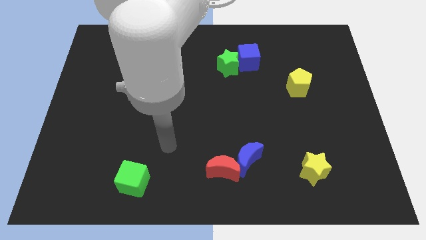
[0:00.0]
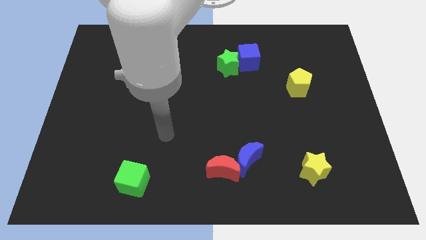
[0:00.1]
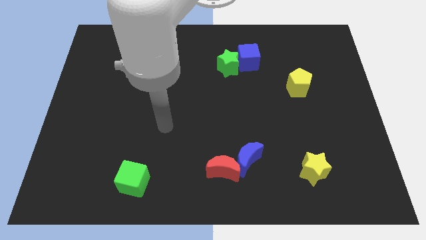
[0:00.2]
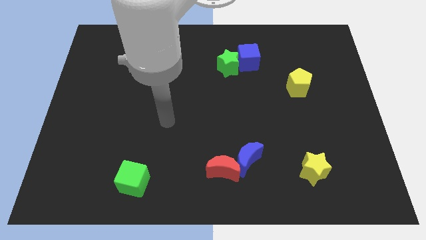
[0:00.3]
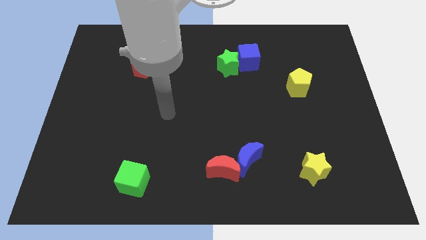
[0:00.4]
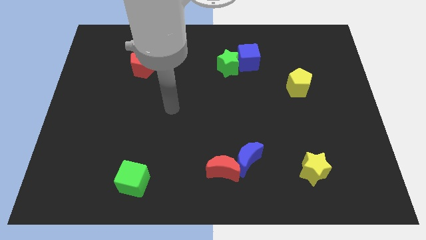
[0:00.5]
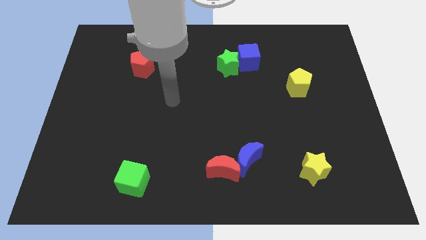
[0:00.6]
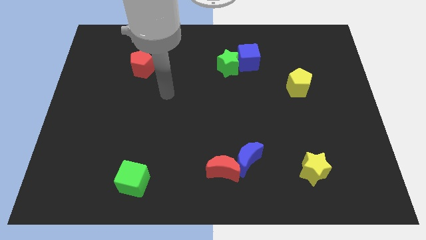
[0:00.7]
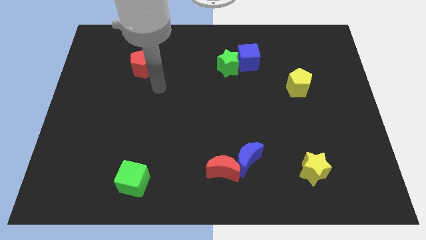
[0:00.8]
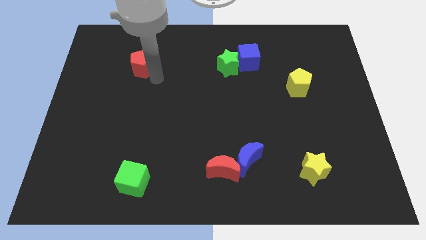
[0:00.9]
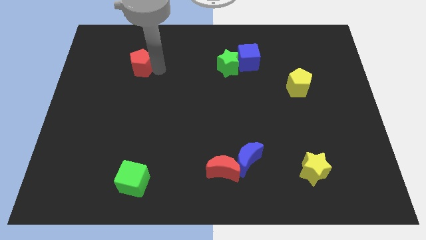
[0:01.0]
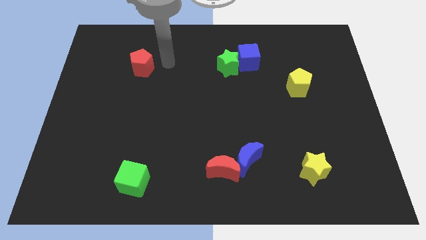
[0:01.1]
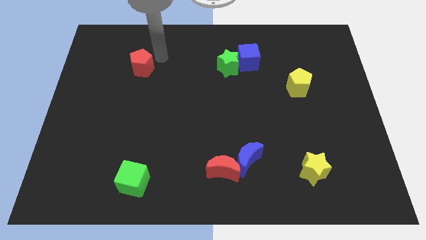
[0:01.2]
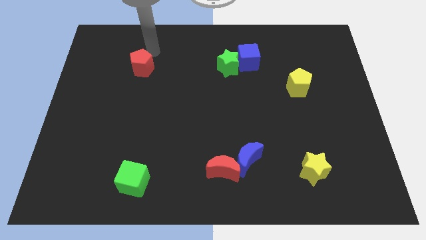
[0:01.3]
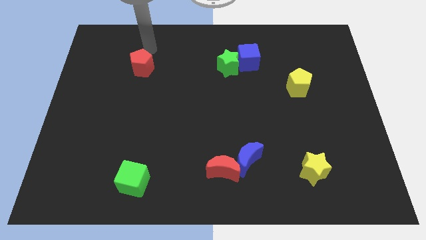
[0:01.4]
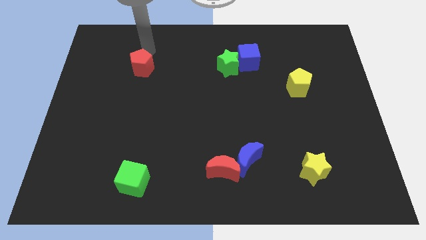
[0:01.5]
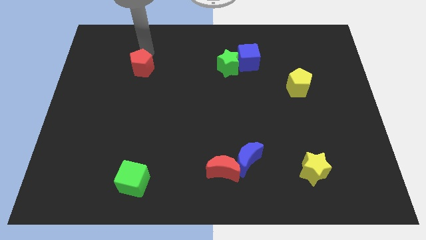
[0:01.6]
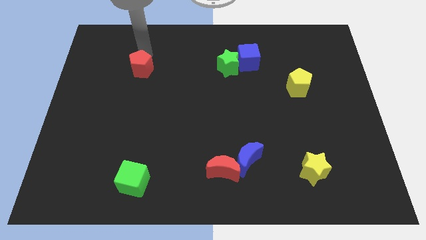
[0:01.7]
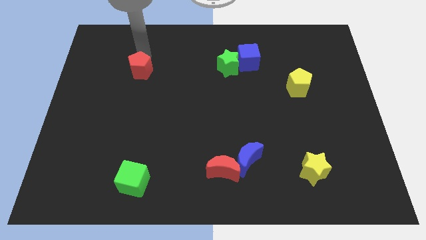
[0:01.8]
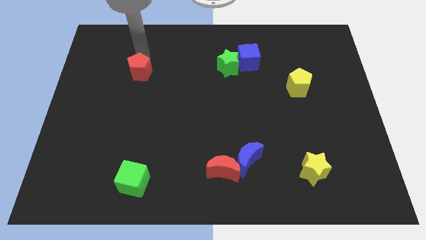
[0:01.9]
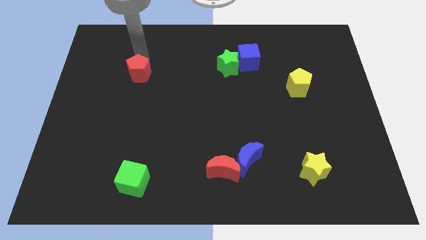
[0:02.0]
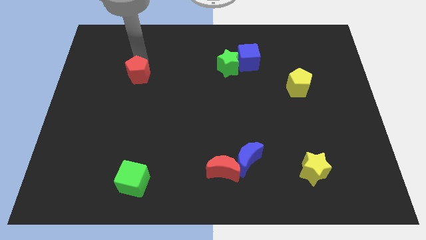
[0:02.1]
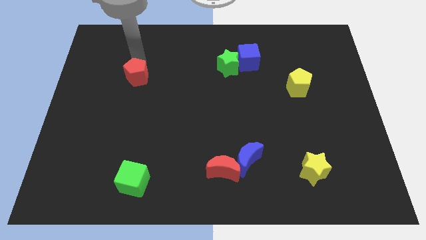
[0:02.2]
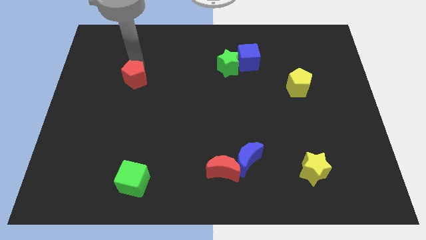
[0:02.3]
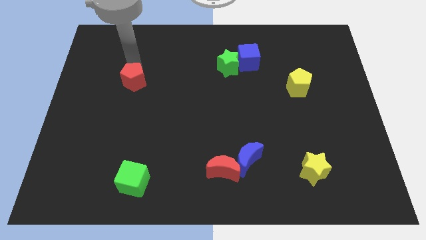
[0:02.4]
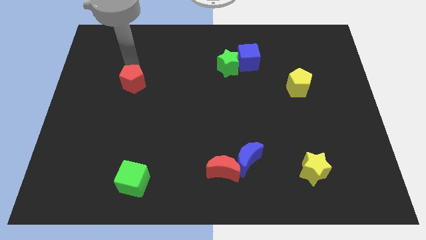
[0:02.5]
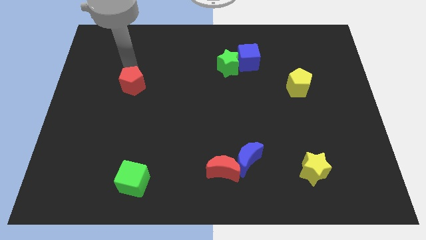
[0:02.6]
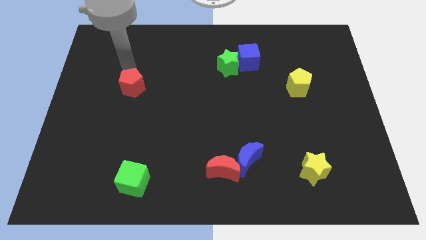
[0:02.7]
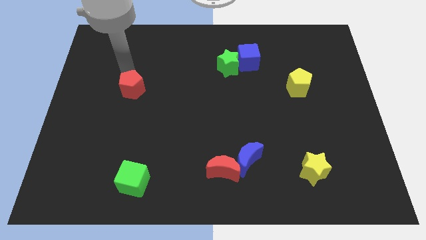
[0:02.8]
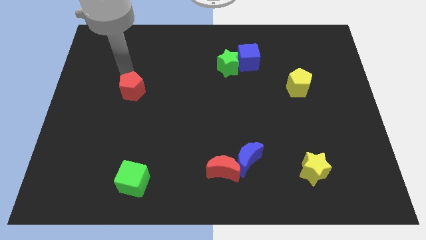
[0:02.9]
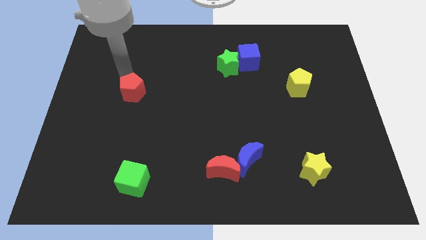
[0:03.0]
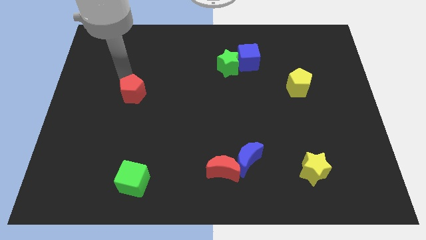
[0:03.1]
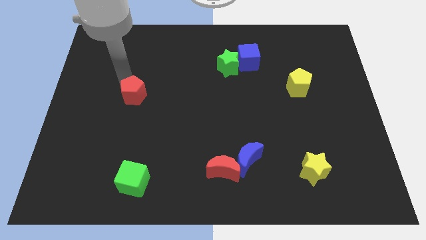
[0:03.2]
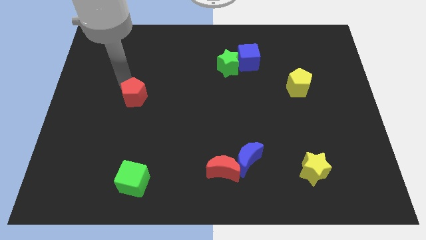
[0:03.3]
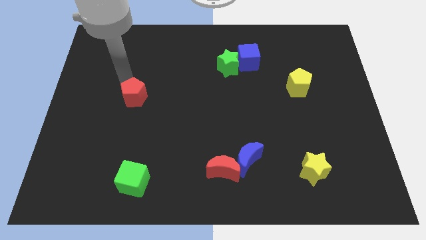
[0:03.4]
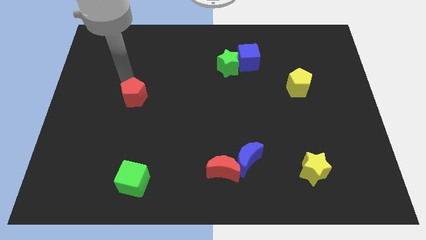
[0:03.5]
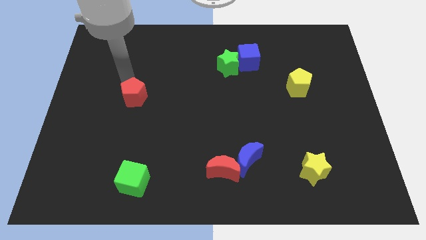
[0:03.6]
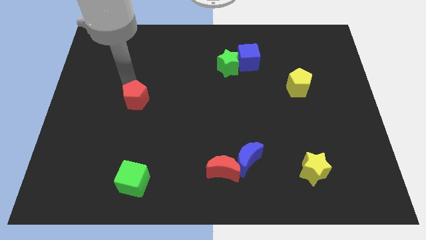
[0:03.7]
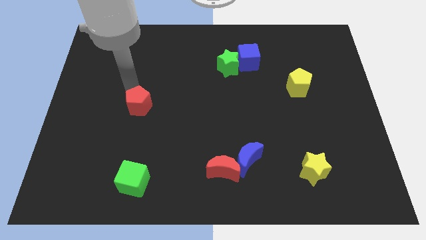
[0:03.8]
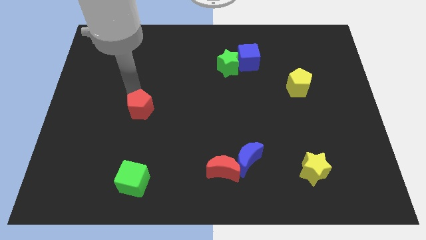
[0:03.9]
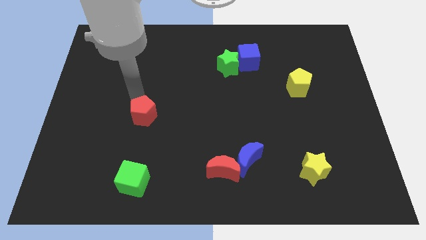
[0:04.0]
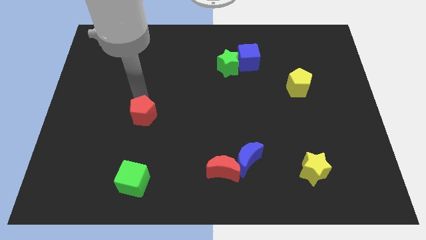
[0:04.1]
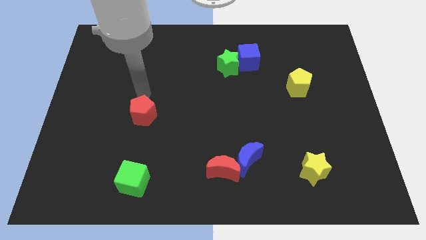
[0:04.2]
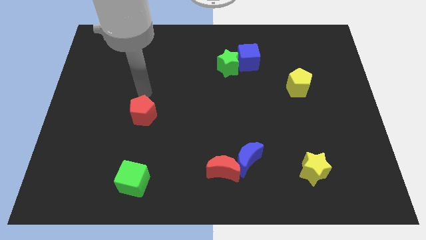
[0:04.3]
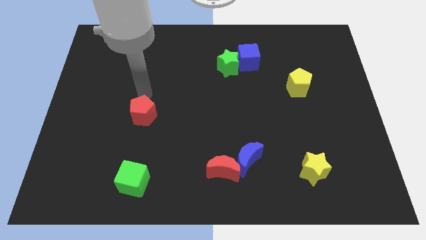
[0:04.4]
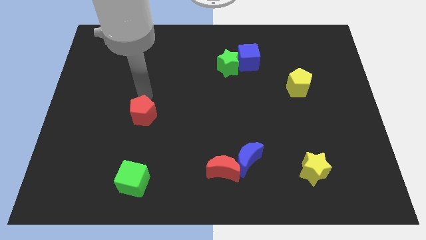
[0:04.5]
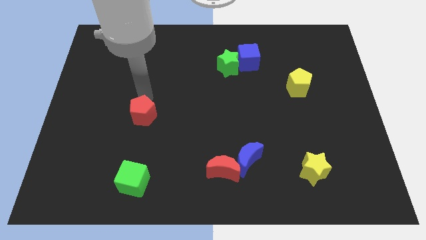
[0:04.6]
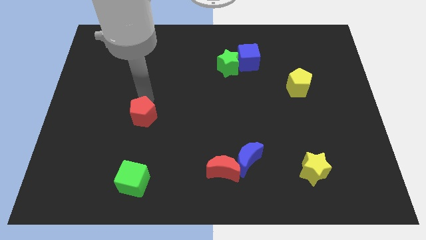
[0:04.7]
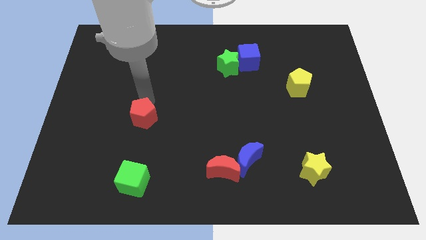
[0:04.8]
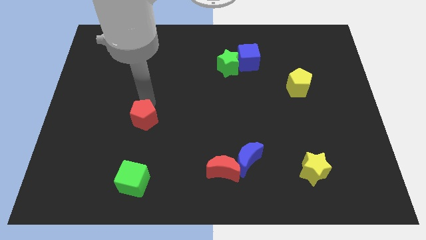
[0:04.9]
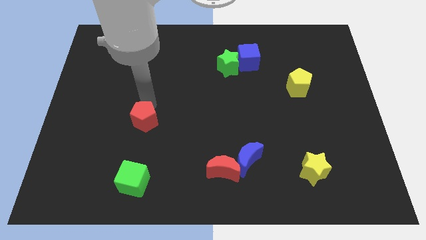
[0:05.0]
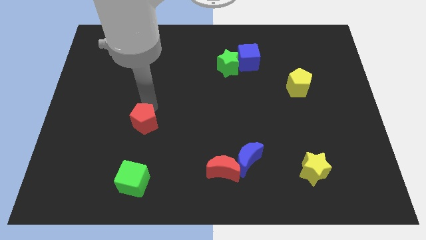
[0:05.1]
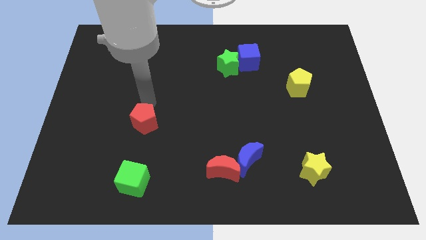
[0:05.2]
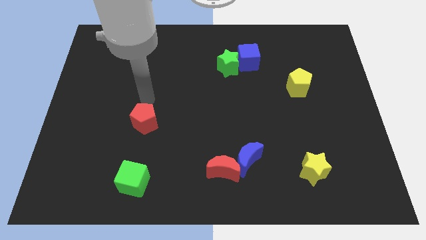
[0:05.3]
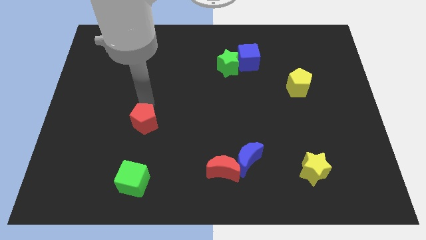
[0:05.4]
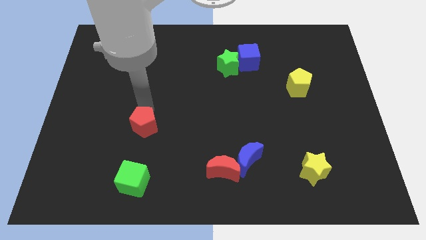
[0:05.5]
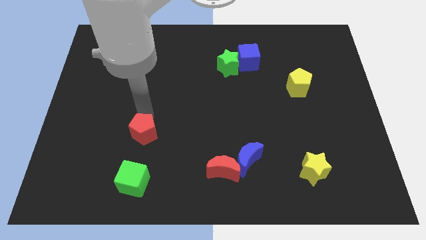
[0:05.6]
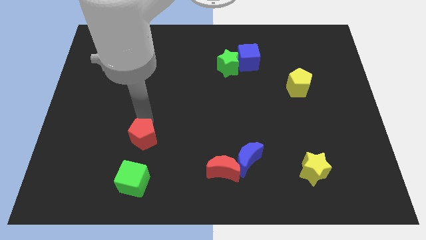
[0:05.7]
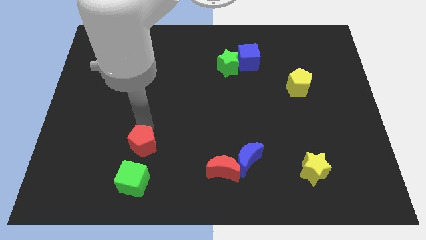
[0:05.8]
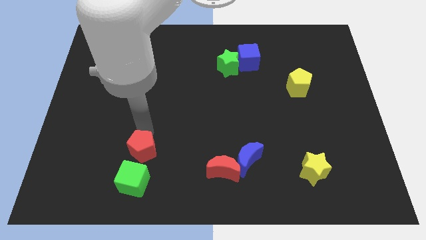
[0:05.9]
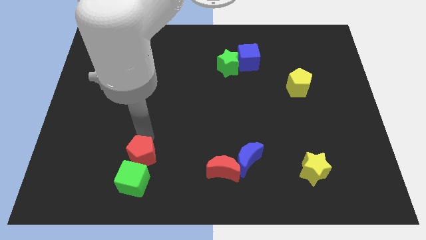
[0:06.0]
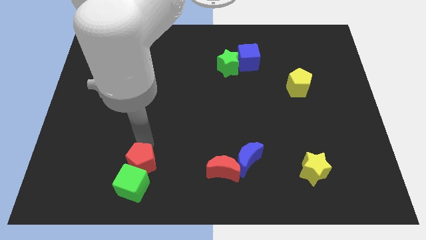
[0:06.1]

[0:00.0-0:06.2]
slide the red pentagon close to the green cube

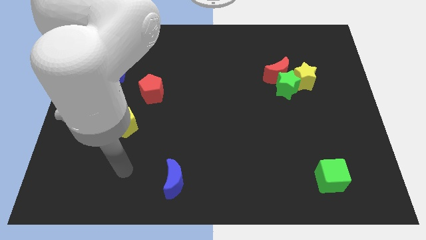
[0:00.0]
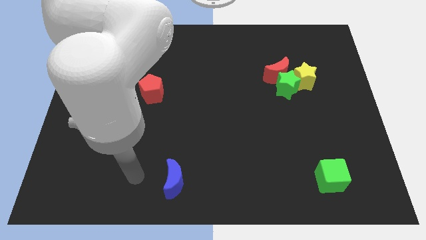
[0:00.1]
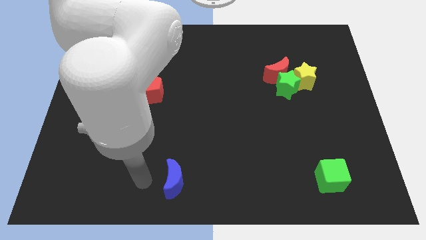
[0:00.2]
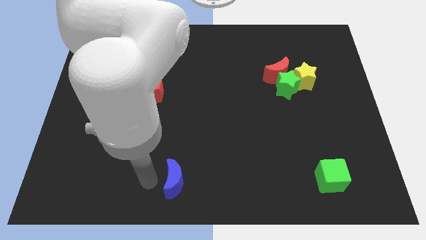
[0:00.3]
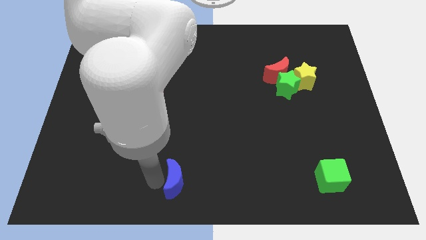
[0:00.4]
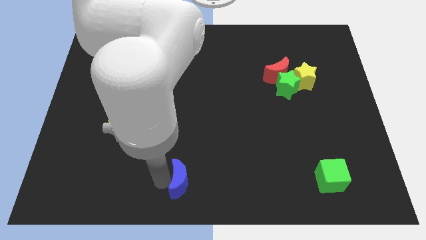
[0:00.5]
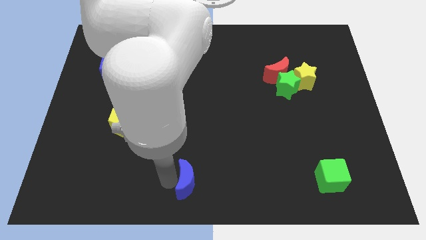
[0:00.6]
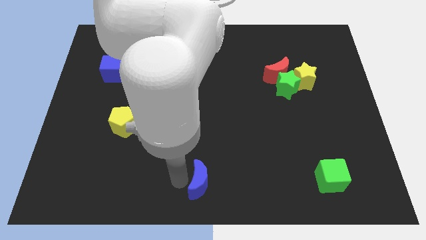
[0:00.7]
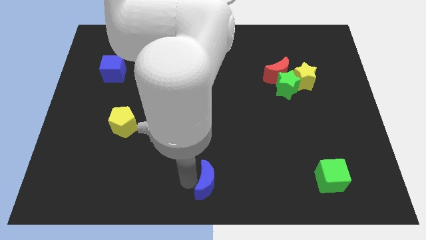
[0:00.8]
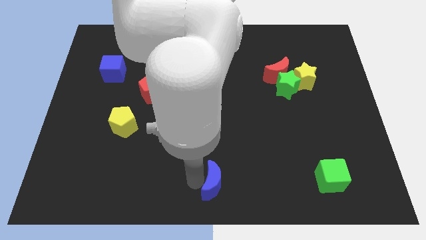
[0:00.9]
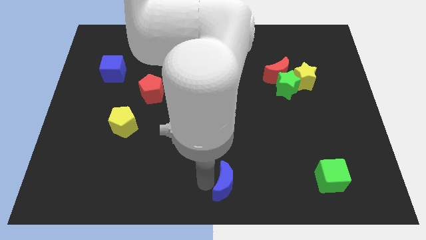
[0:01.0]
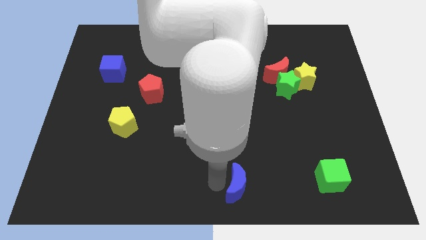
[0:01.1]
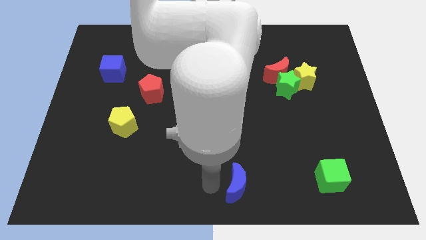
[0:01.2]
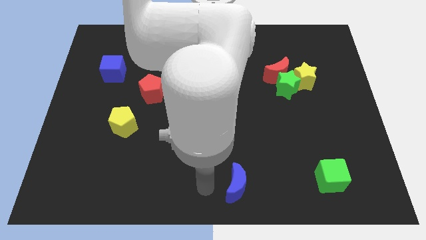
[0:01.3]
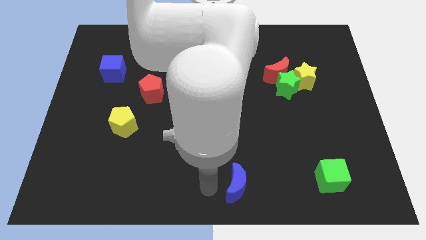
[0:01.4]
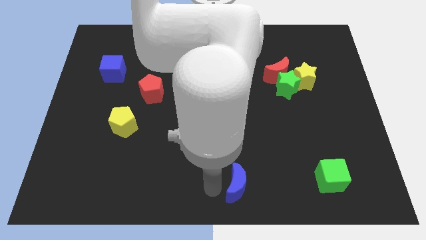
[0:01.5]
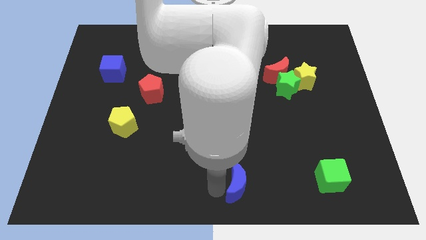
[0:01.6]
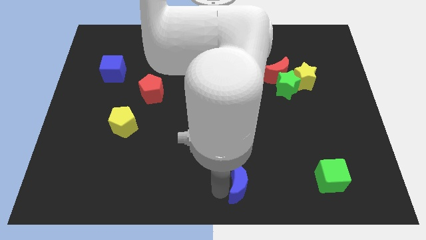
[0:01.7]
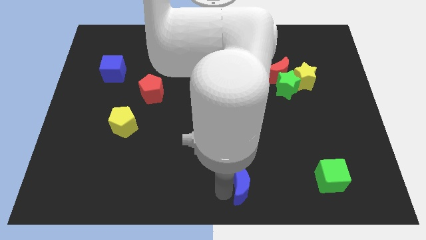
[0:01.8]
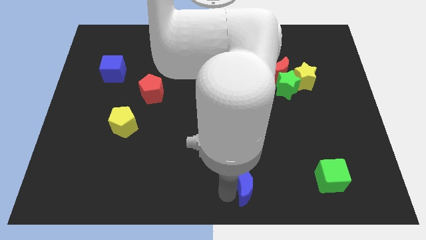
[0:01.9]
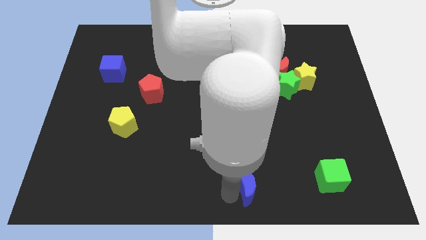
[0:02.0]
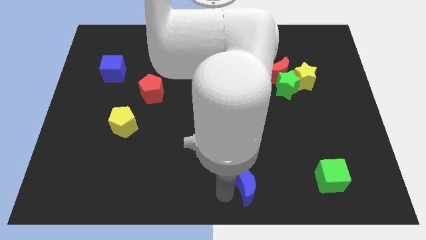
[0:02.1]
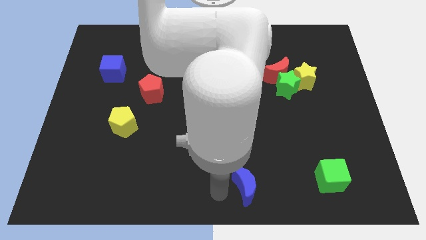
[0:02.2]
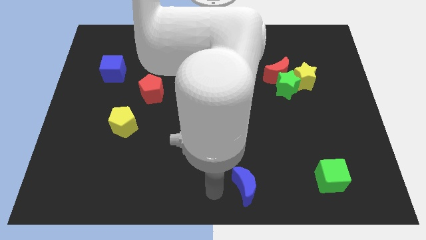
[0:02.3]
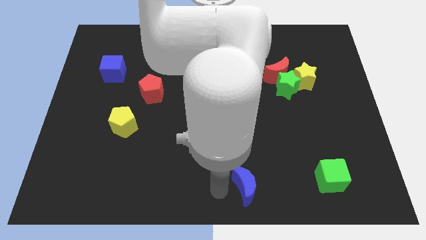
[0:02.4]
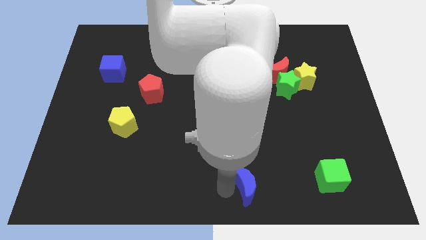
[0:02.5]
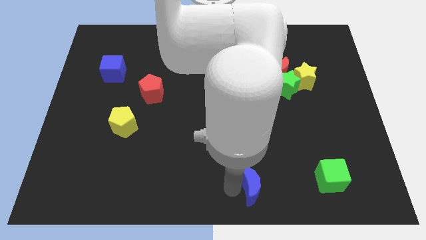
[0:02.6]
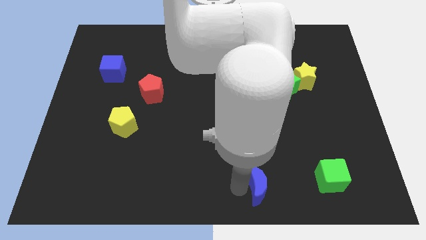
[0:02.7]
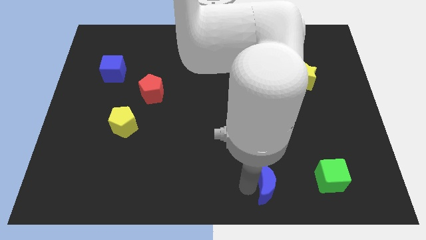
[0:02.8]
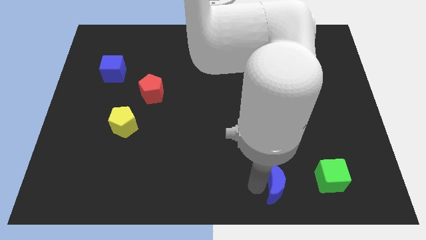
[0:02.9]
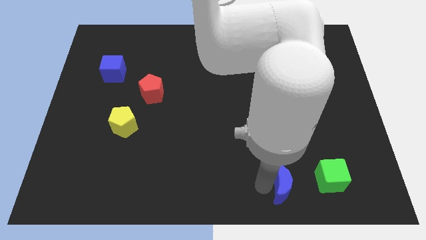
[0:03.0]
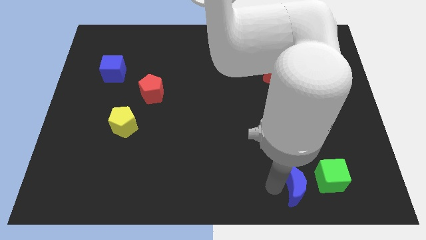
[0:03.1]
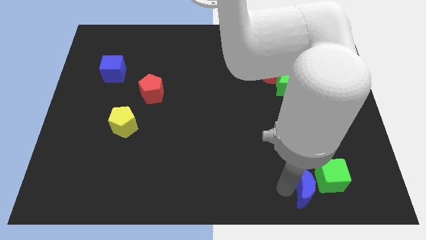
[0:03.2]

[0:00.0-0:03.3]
move the blue moon close to the green cube
